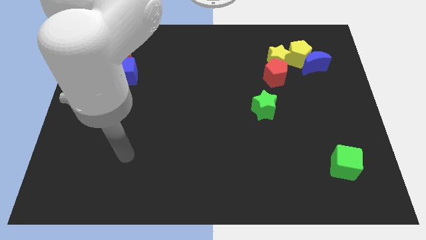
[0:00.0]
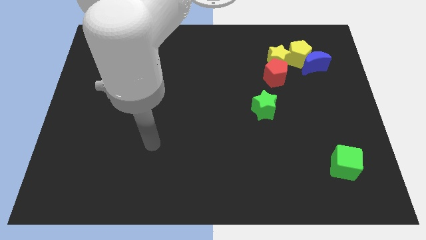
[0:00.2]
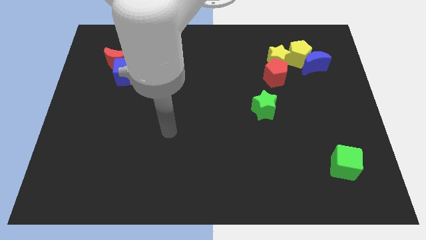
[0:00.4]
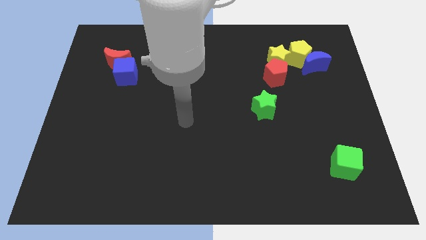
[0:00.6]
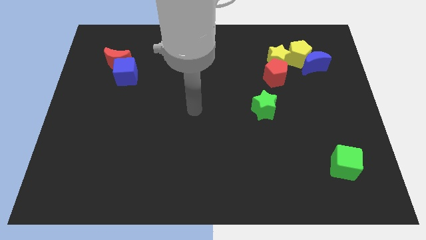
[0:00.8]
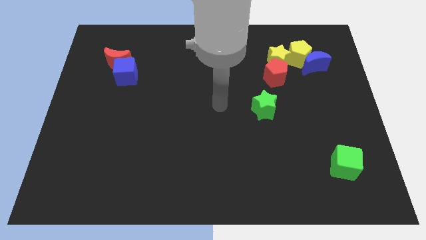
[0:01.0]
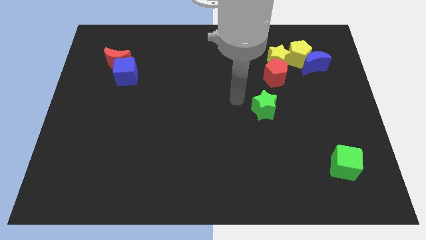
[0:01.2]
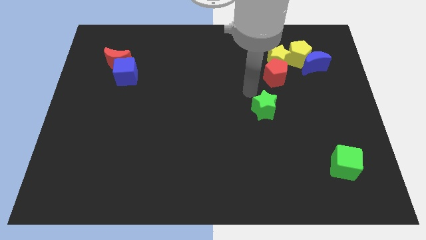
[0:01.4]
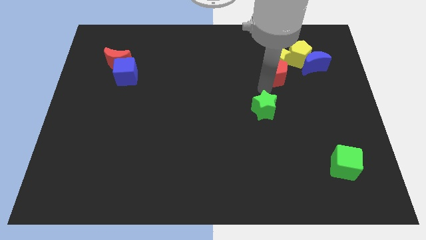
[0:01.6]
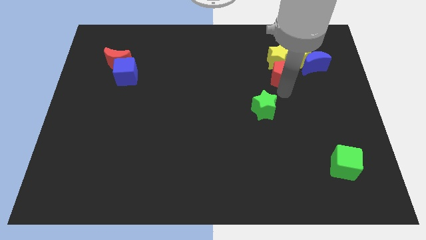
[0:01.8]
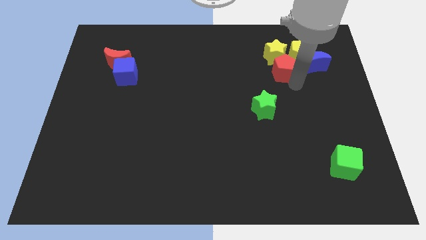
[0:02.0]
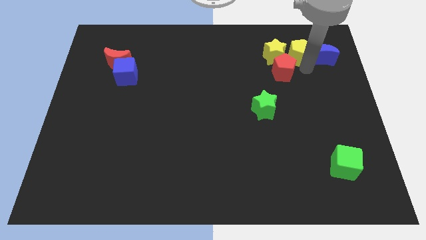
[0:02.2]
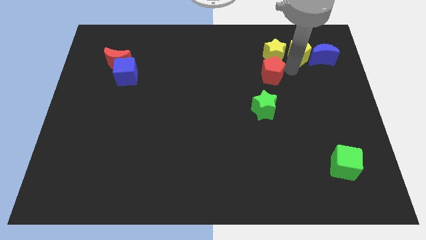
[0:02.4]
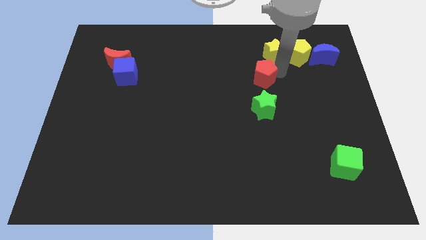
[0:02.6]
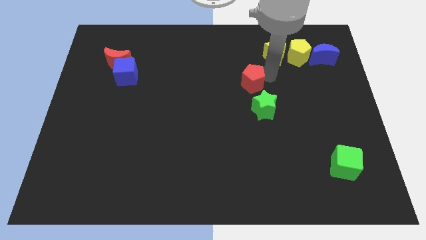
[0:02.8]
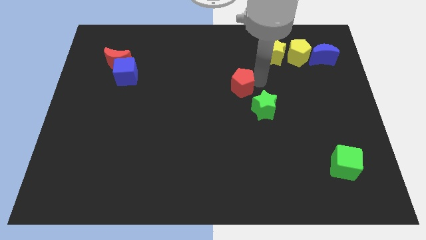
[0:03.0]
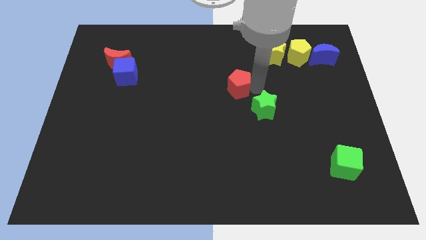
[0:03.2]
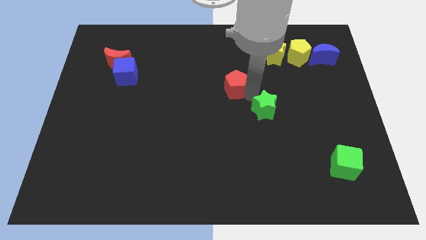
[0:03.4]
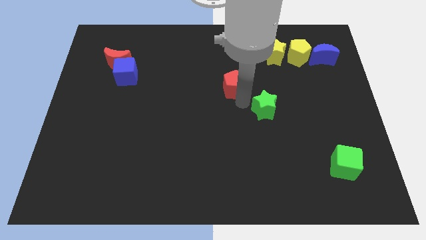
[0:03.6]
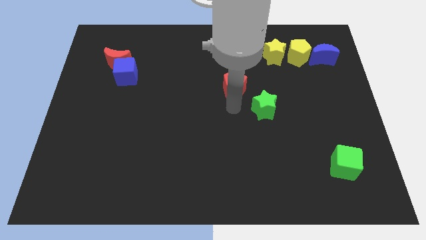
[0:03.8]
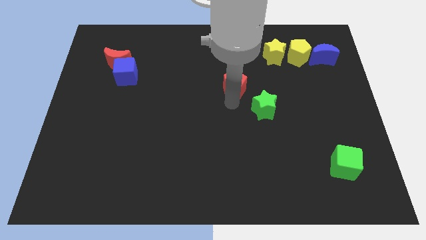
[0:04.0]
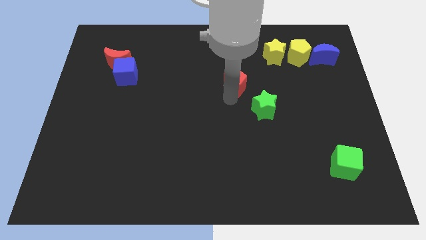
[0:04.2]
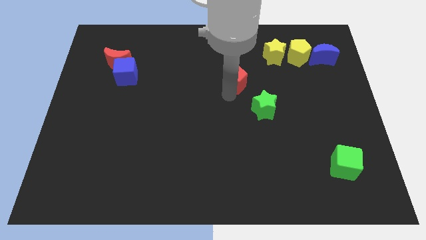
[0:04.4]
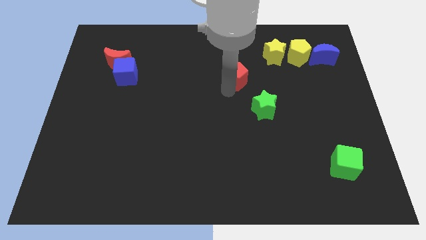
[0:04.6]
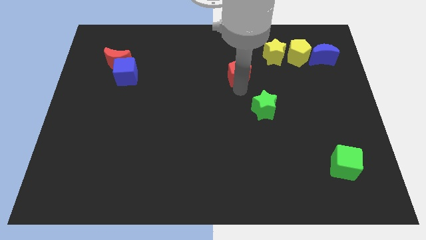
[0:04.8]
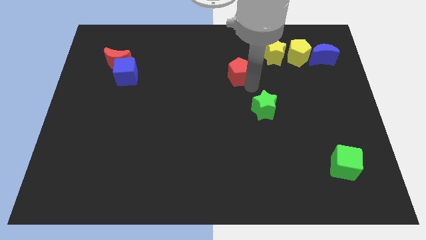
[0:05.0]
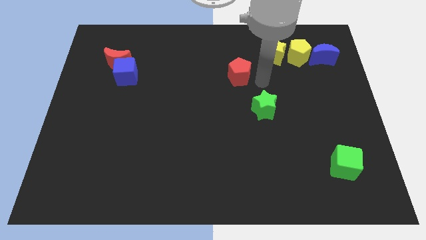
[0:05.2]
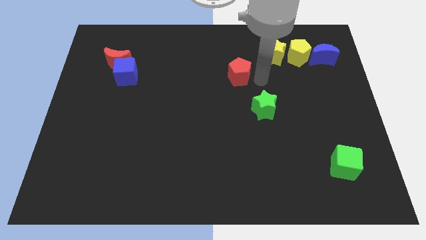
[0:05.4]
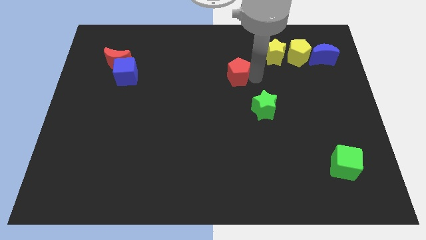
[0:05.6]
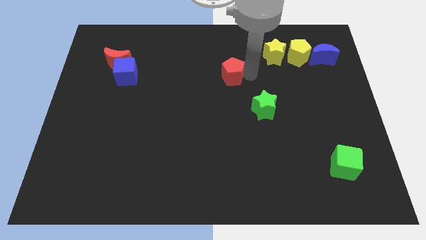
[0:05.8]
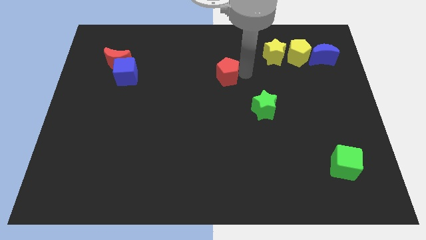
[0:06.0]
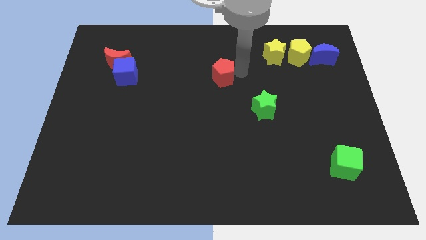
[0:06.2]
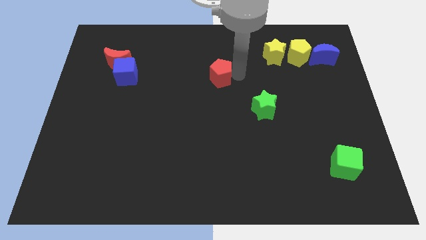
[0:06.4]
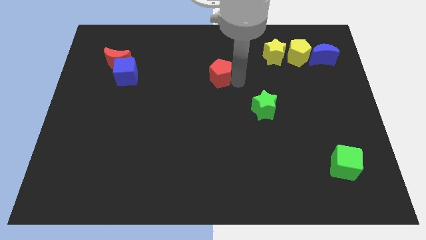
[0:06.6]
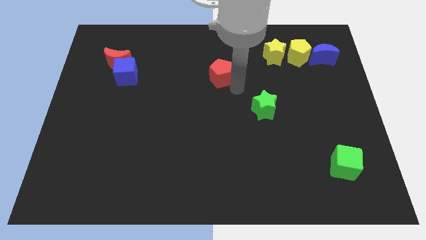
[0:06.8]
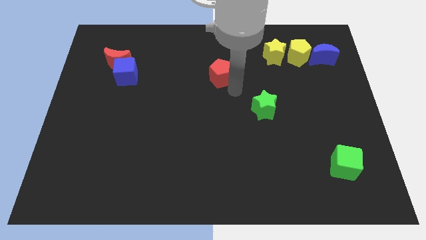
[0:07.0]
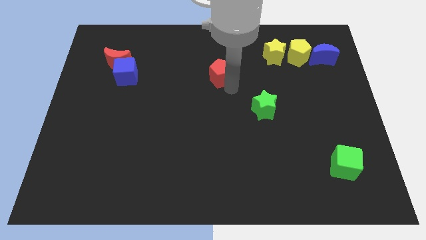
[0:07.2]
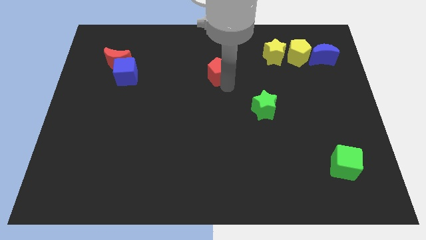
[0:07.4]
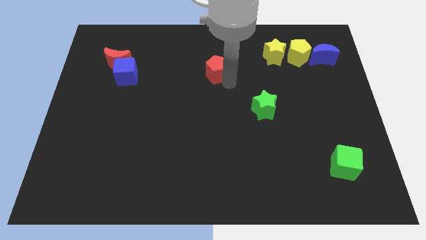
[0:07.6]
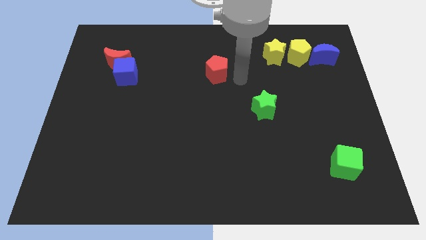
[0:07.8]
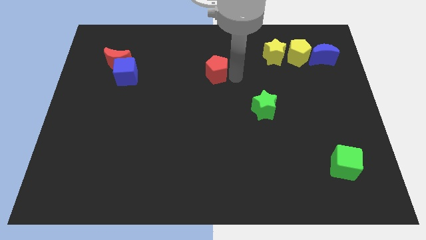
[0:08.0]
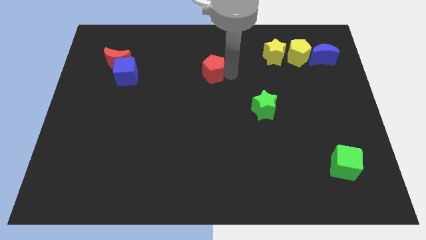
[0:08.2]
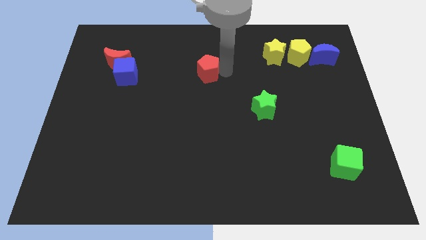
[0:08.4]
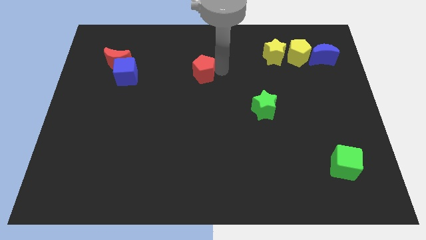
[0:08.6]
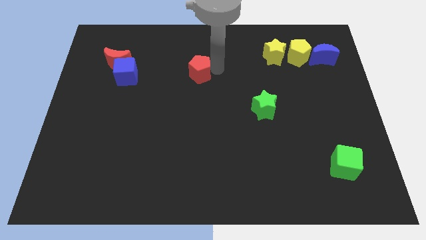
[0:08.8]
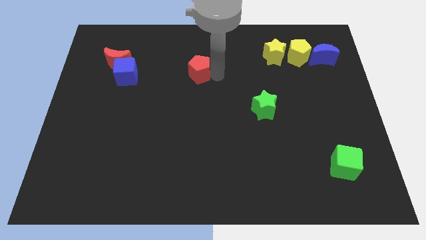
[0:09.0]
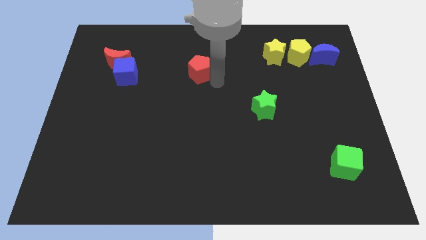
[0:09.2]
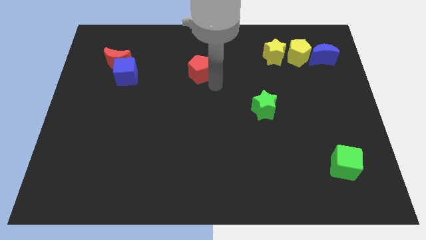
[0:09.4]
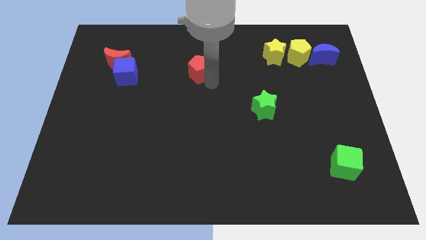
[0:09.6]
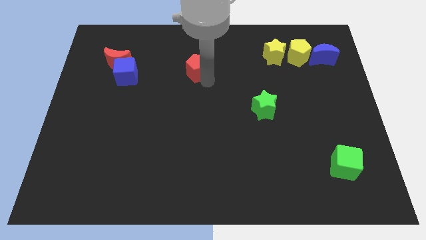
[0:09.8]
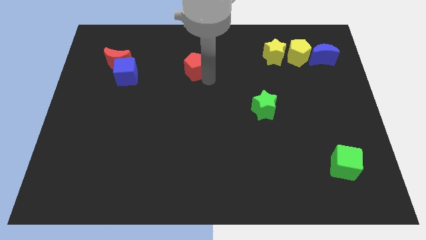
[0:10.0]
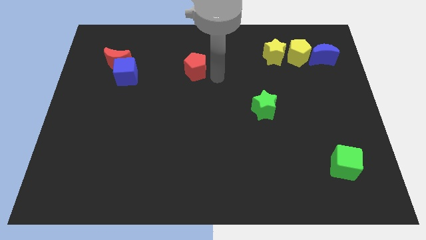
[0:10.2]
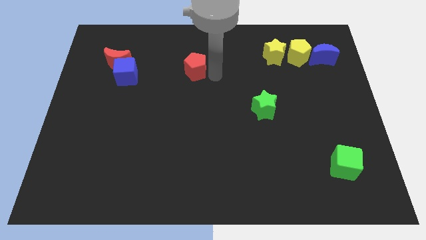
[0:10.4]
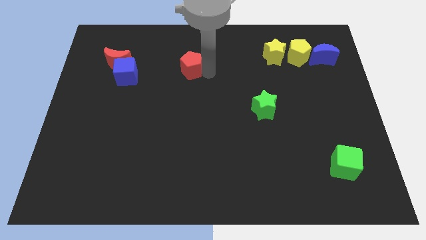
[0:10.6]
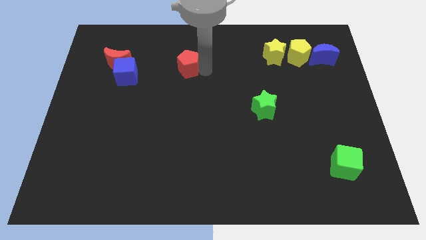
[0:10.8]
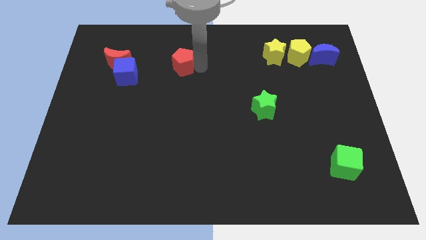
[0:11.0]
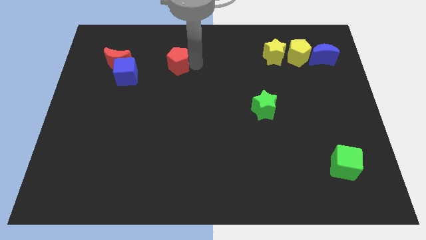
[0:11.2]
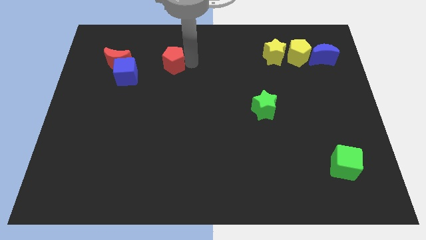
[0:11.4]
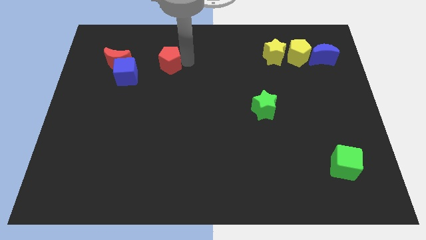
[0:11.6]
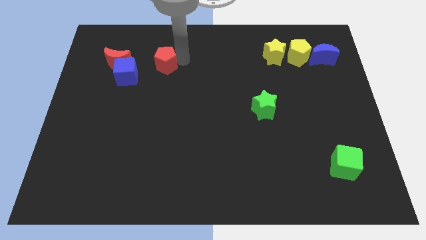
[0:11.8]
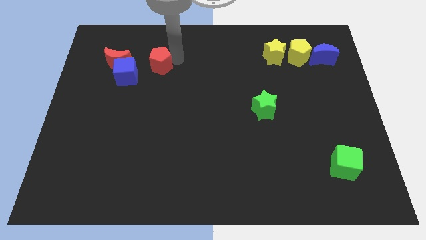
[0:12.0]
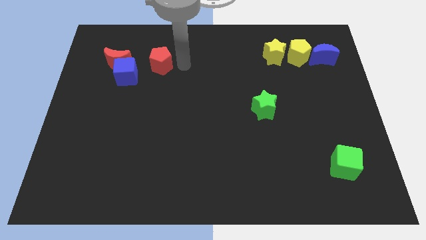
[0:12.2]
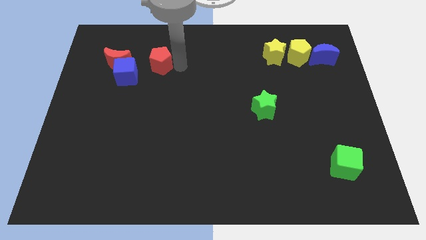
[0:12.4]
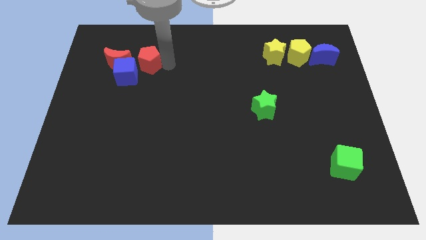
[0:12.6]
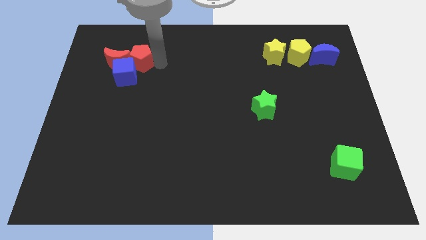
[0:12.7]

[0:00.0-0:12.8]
push the red pentagon next to the red moon
